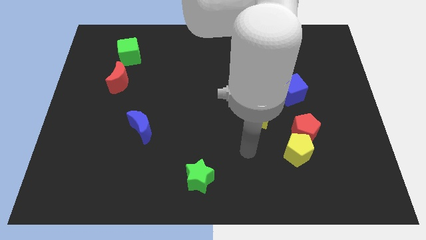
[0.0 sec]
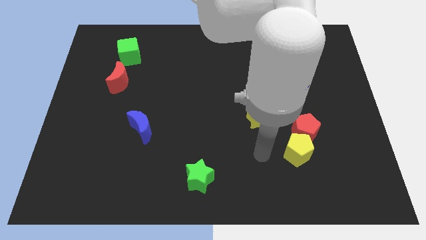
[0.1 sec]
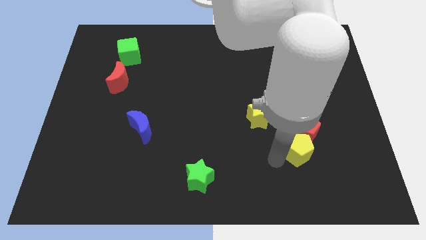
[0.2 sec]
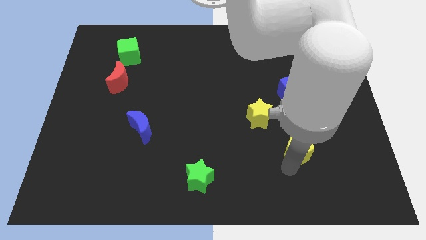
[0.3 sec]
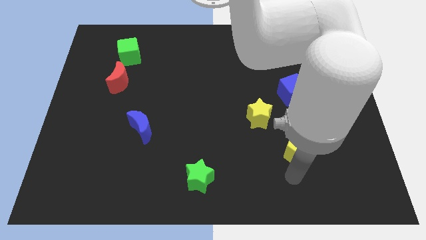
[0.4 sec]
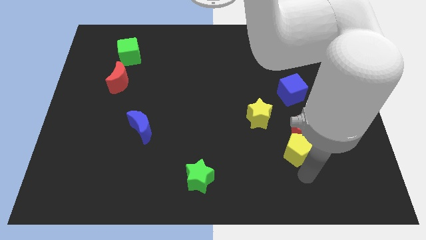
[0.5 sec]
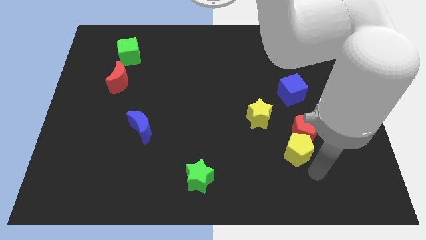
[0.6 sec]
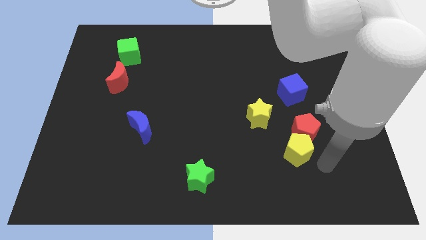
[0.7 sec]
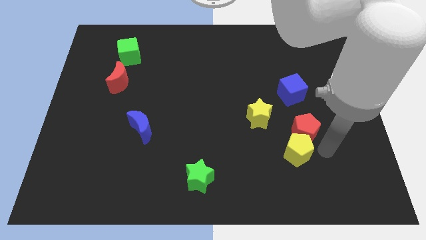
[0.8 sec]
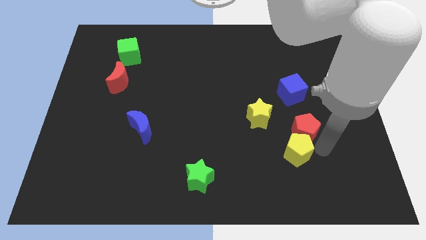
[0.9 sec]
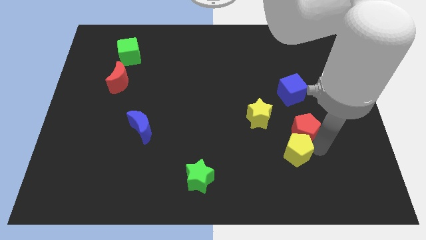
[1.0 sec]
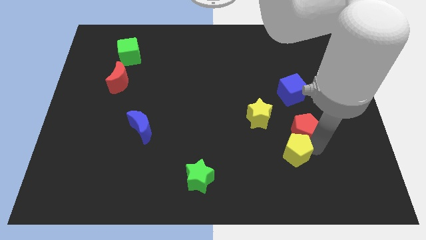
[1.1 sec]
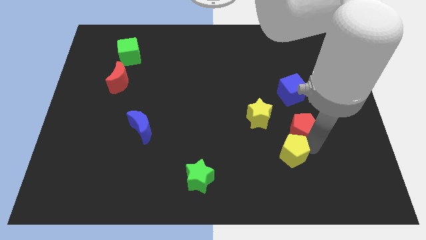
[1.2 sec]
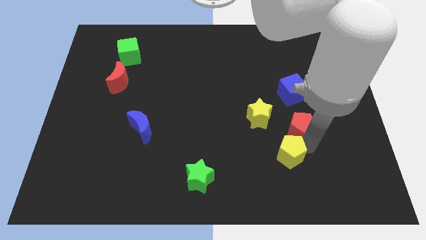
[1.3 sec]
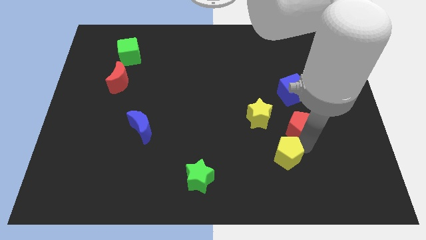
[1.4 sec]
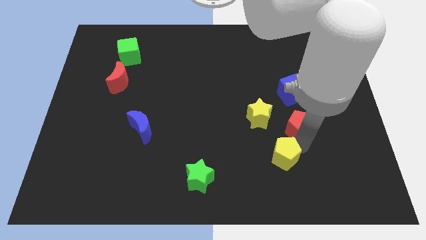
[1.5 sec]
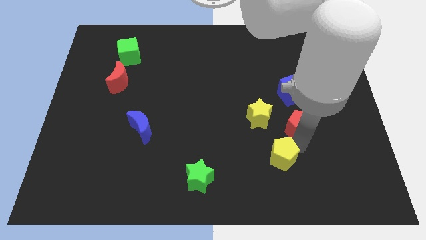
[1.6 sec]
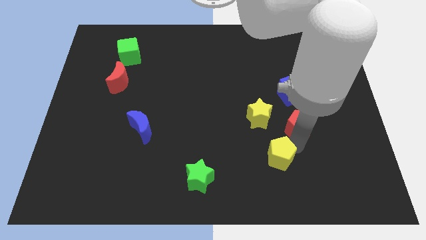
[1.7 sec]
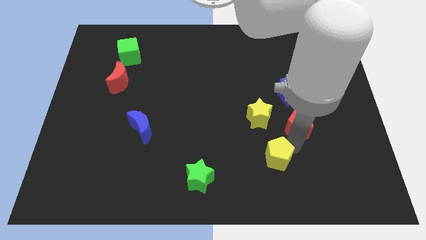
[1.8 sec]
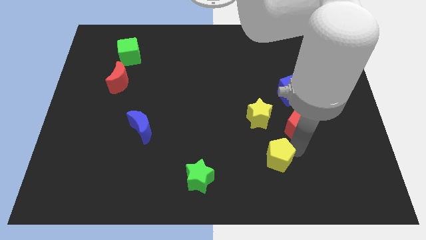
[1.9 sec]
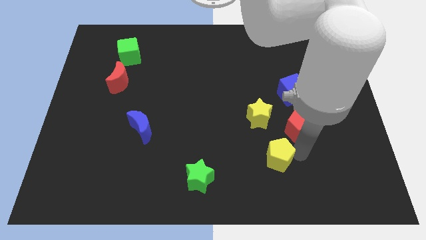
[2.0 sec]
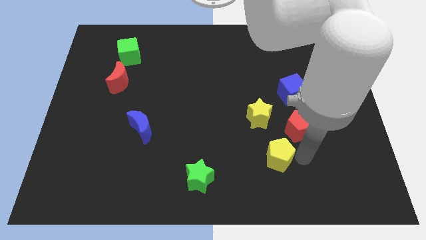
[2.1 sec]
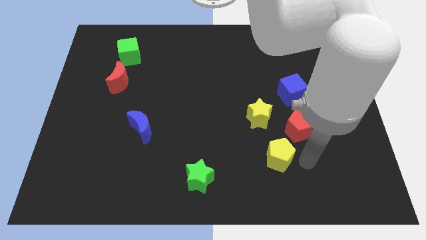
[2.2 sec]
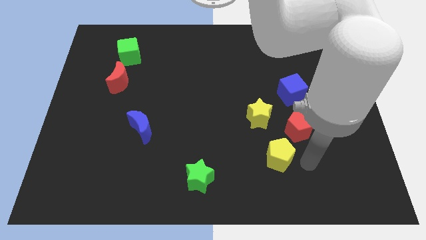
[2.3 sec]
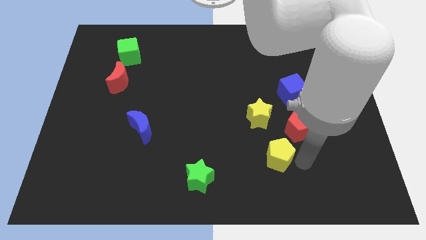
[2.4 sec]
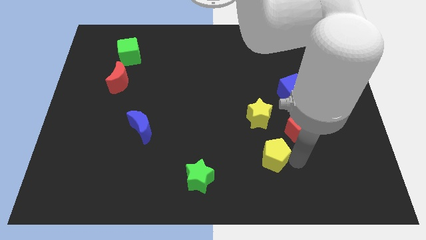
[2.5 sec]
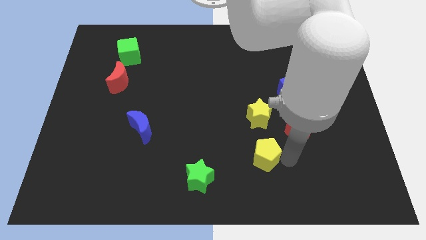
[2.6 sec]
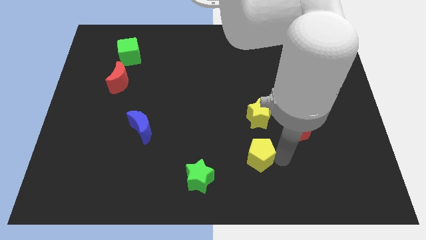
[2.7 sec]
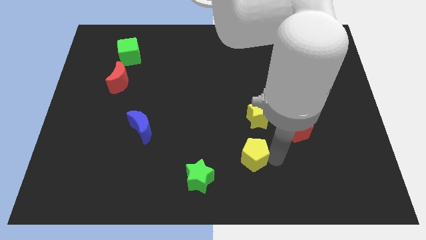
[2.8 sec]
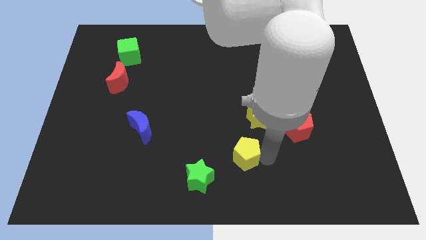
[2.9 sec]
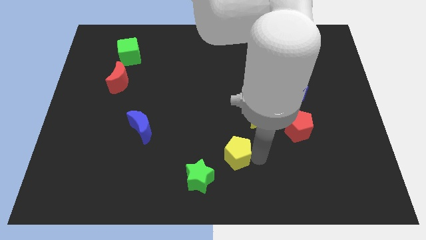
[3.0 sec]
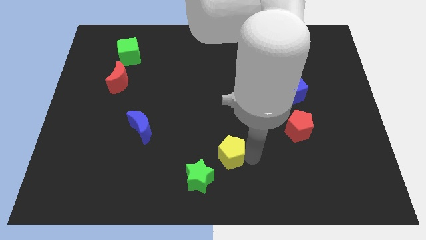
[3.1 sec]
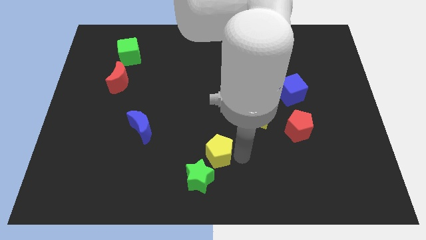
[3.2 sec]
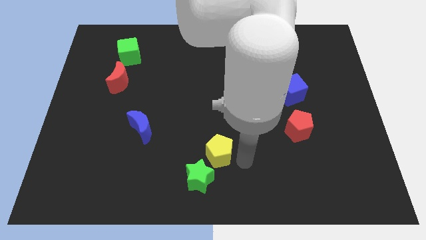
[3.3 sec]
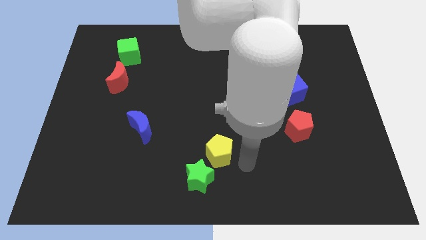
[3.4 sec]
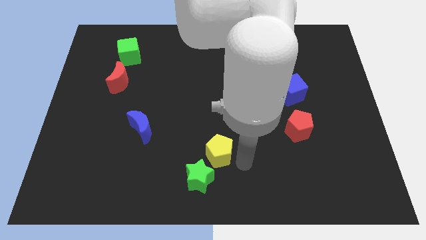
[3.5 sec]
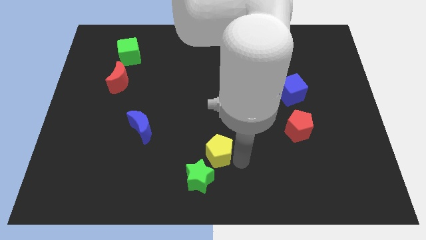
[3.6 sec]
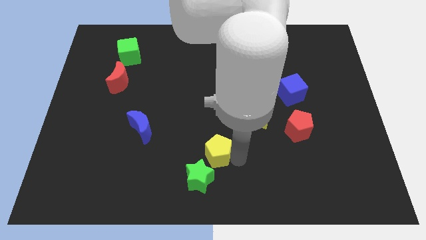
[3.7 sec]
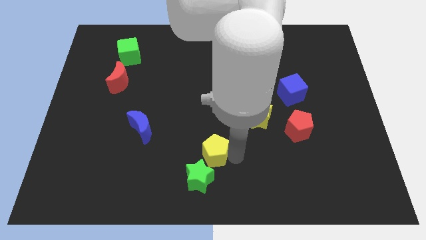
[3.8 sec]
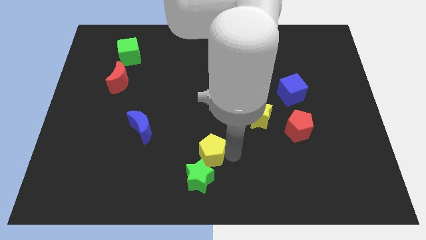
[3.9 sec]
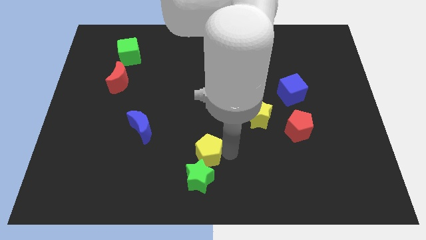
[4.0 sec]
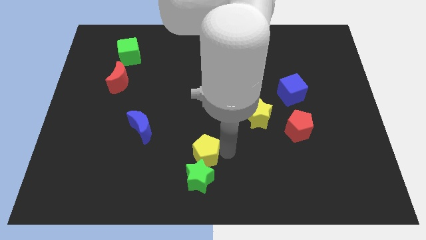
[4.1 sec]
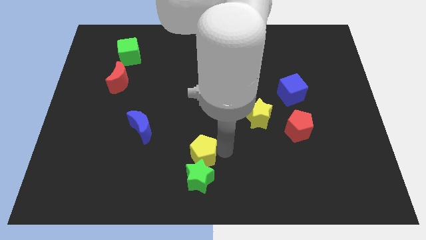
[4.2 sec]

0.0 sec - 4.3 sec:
move the yellow pentagon to the left

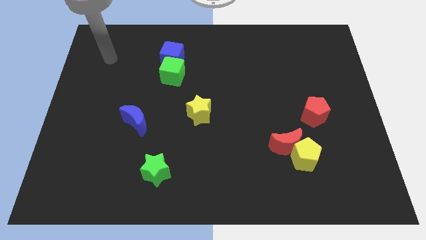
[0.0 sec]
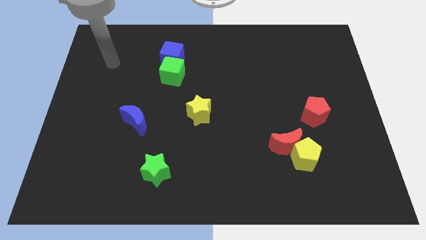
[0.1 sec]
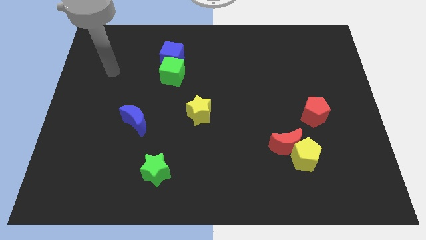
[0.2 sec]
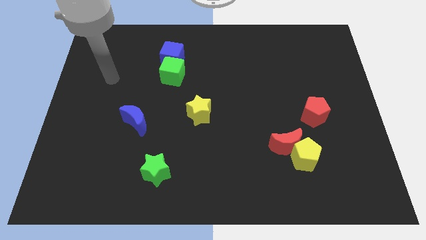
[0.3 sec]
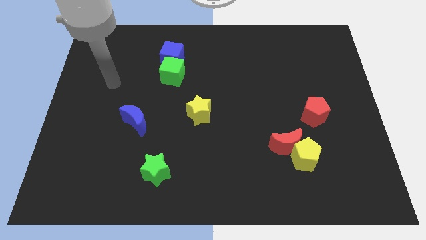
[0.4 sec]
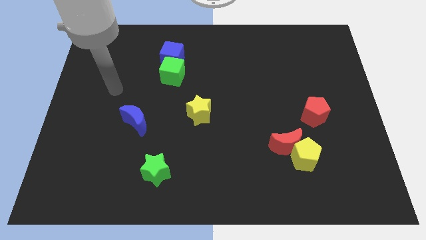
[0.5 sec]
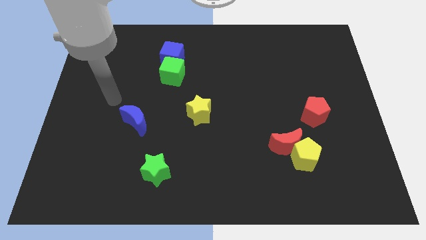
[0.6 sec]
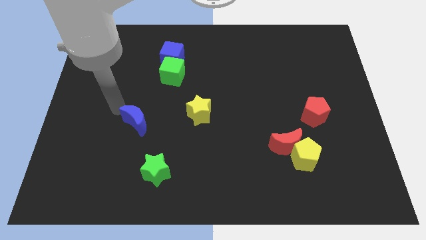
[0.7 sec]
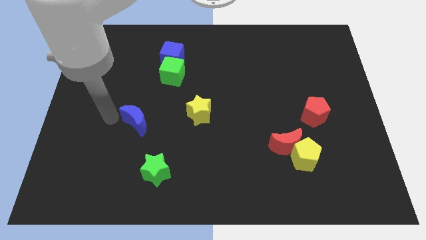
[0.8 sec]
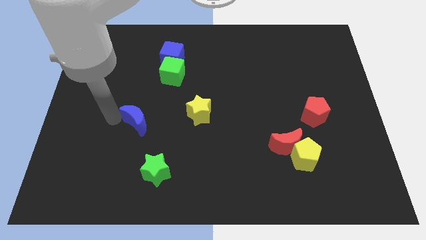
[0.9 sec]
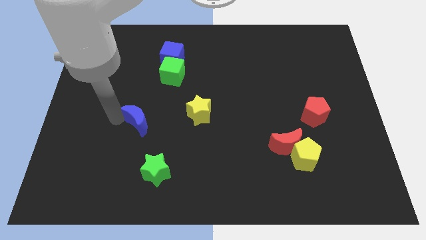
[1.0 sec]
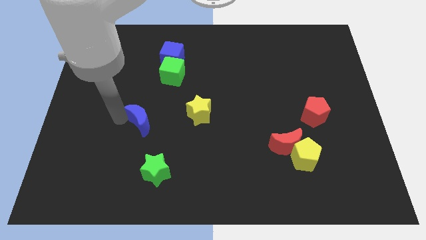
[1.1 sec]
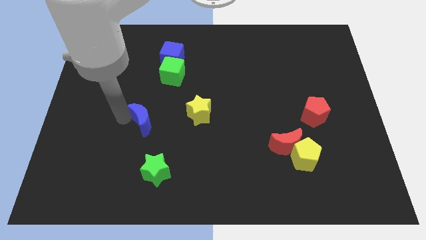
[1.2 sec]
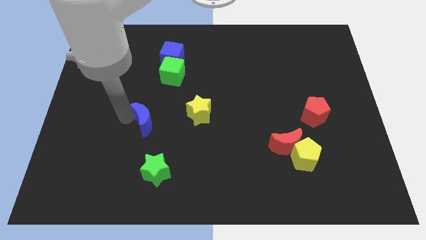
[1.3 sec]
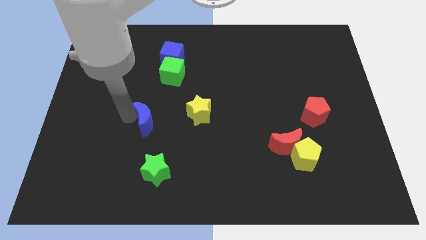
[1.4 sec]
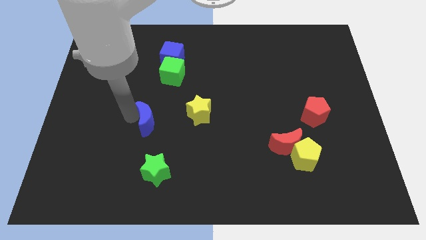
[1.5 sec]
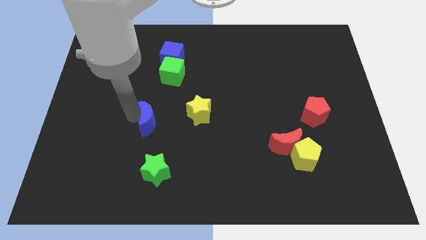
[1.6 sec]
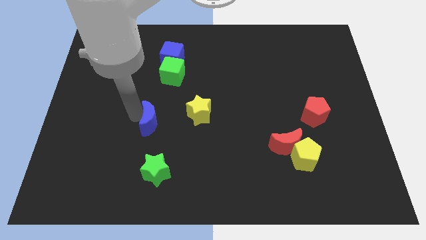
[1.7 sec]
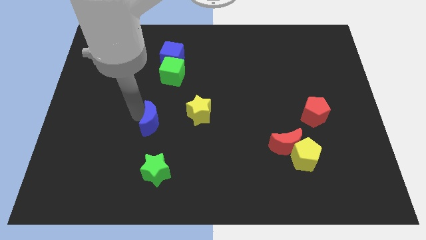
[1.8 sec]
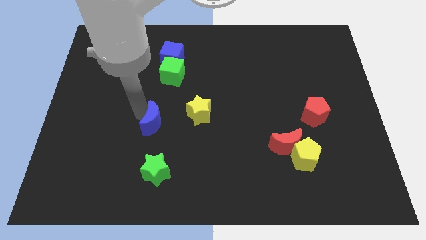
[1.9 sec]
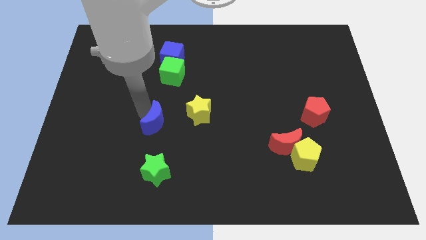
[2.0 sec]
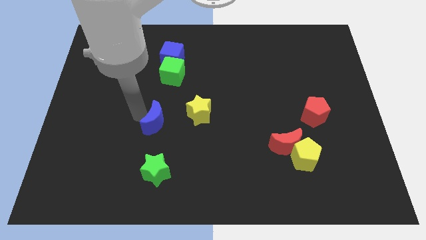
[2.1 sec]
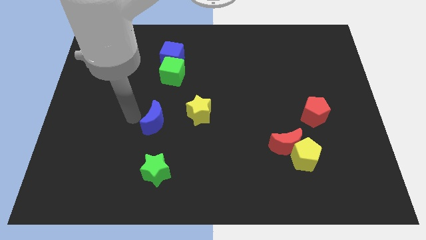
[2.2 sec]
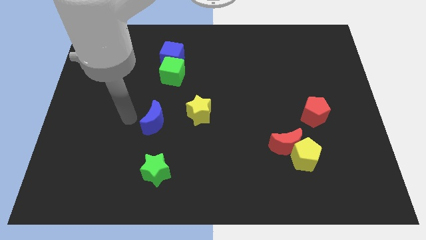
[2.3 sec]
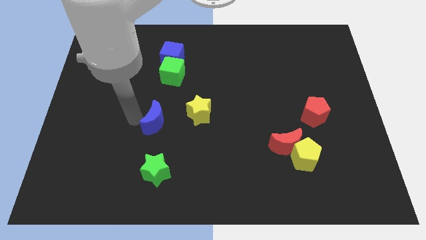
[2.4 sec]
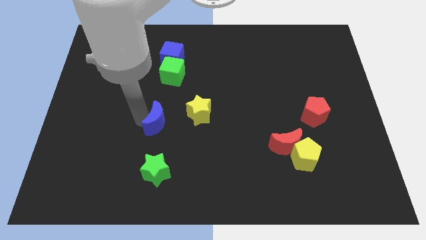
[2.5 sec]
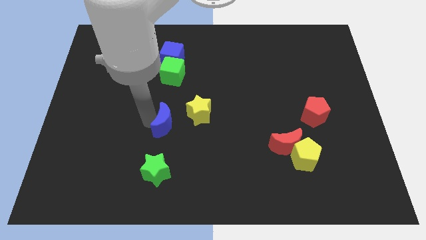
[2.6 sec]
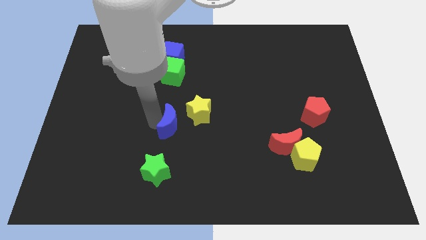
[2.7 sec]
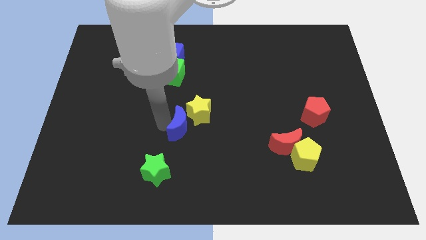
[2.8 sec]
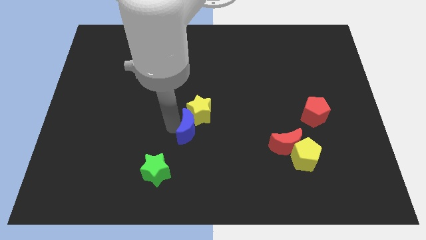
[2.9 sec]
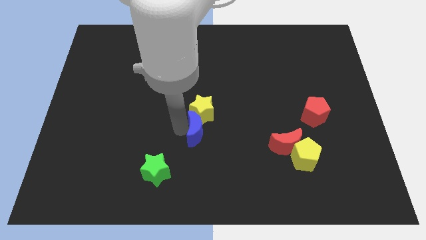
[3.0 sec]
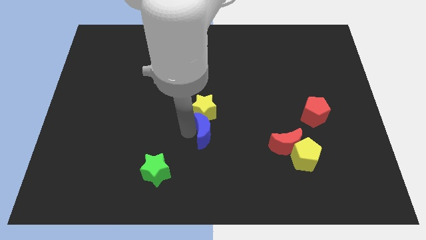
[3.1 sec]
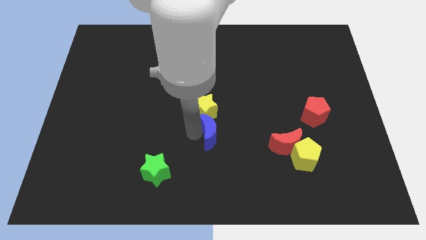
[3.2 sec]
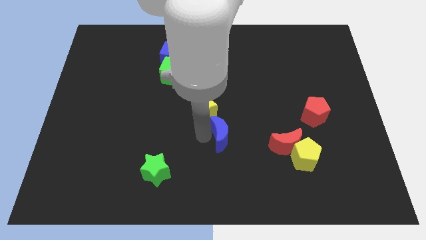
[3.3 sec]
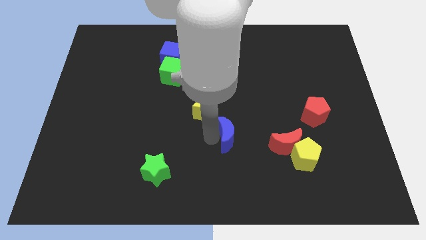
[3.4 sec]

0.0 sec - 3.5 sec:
move the blue moon right

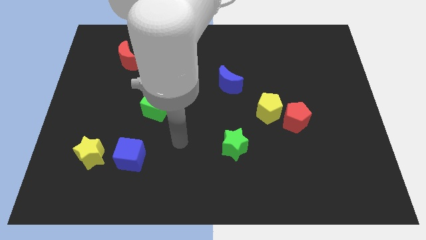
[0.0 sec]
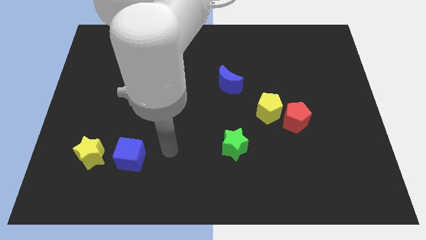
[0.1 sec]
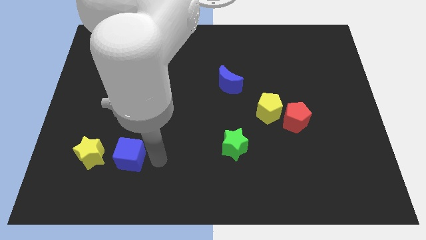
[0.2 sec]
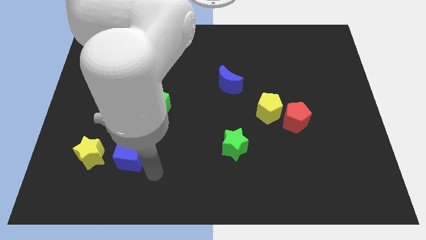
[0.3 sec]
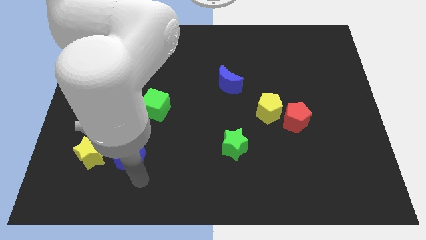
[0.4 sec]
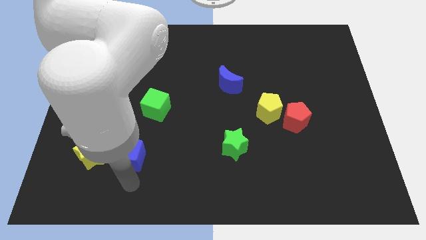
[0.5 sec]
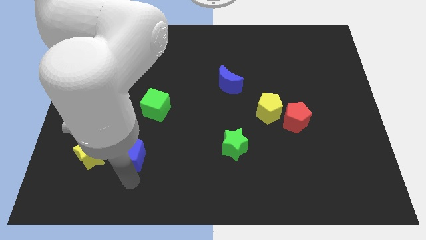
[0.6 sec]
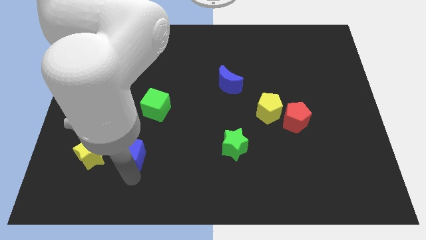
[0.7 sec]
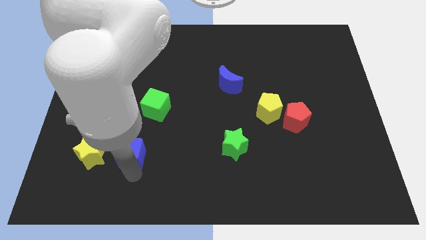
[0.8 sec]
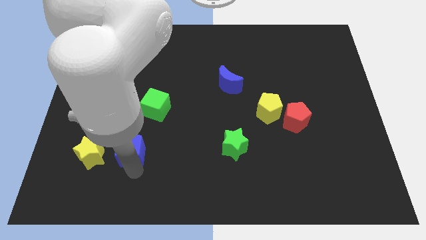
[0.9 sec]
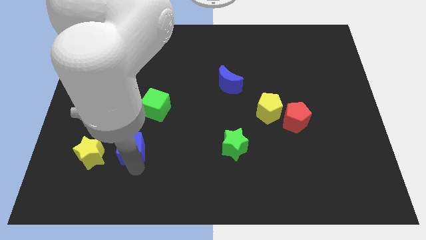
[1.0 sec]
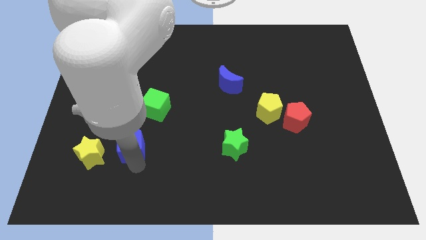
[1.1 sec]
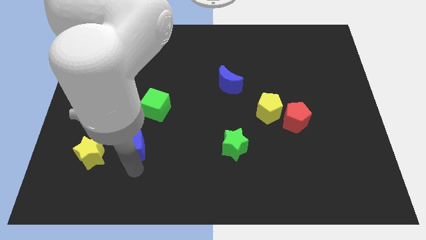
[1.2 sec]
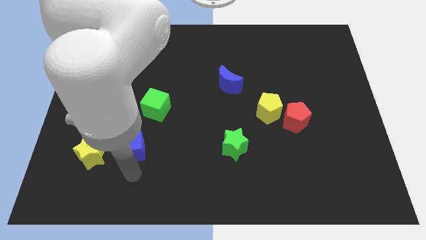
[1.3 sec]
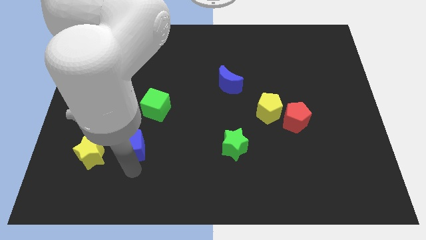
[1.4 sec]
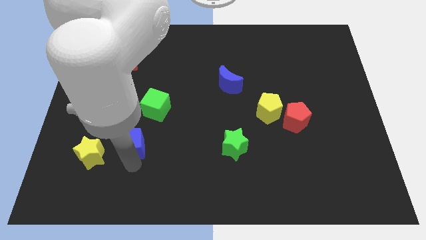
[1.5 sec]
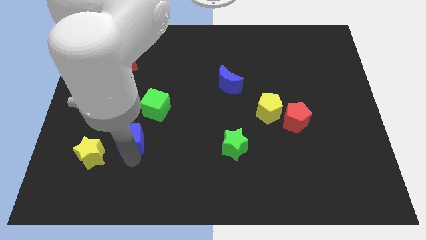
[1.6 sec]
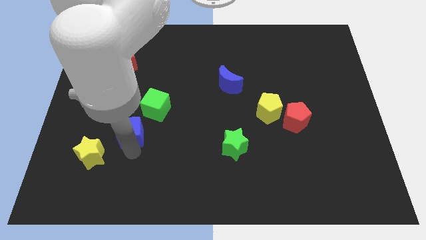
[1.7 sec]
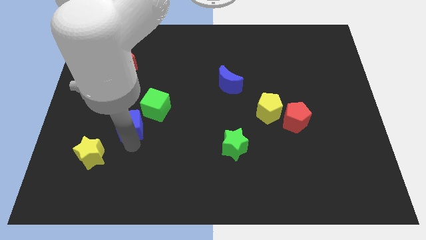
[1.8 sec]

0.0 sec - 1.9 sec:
move the blue cube a bit upwards
